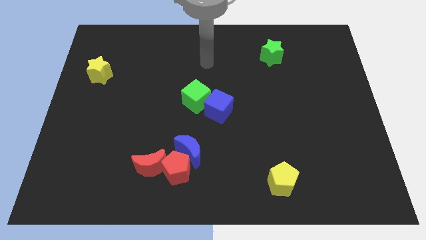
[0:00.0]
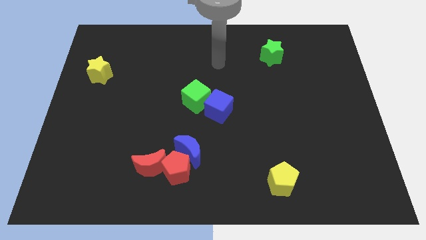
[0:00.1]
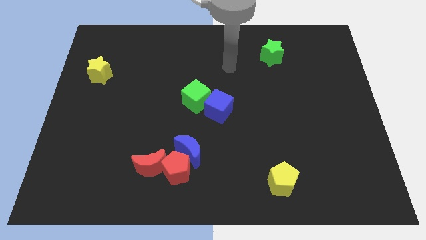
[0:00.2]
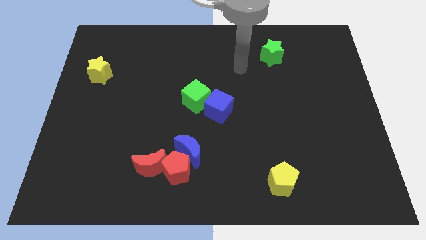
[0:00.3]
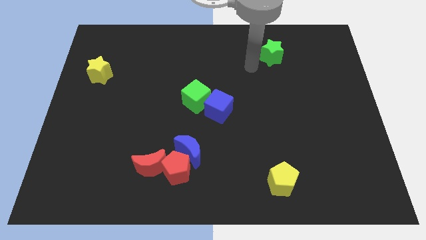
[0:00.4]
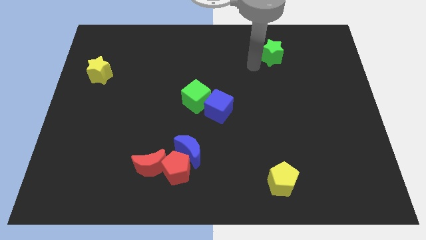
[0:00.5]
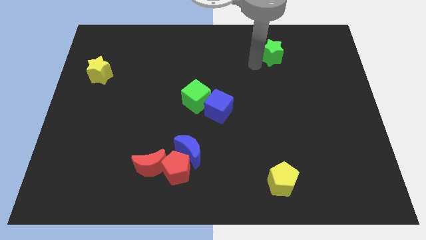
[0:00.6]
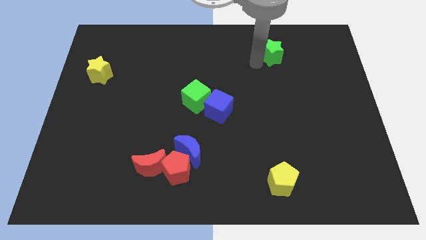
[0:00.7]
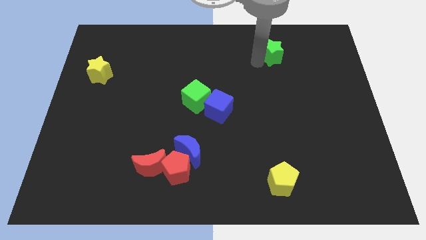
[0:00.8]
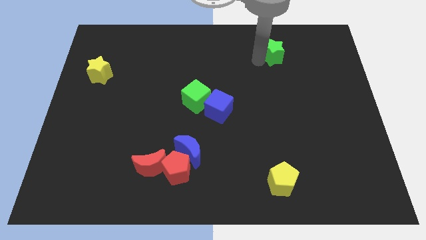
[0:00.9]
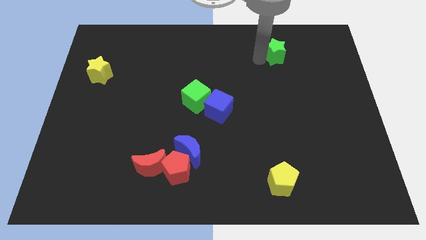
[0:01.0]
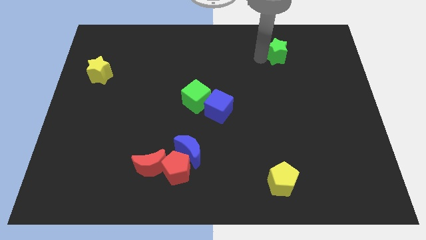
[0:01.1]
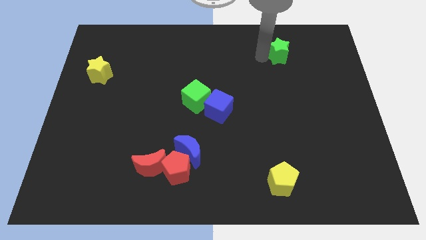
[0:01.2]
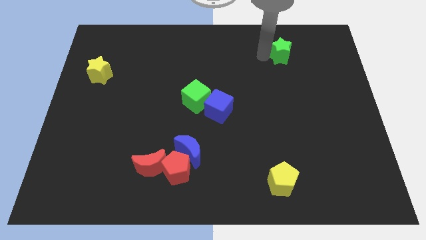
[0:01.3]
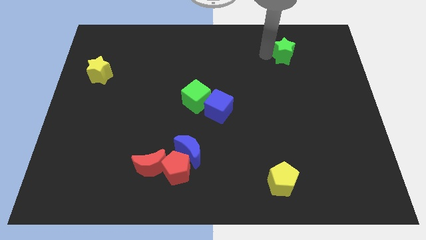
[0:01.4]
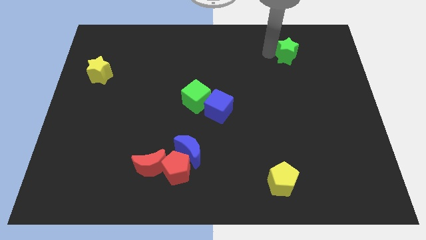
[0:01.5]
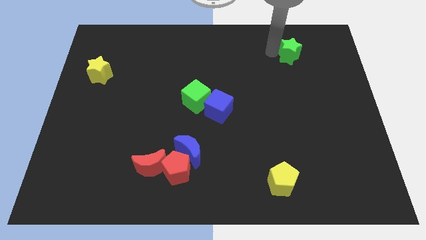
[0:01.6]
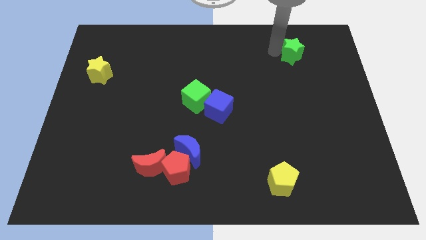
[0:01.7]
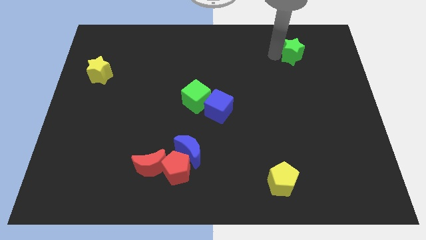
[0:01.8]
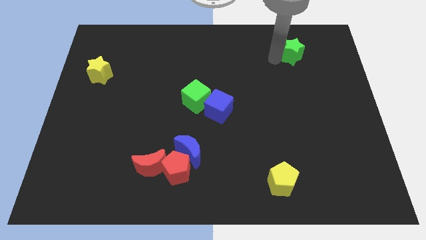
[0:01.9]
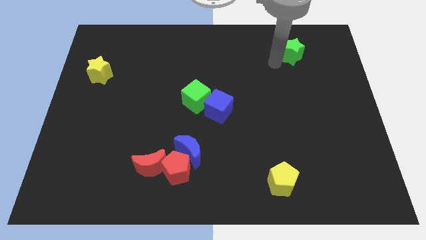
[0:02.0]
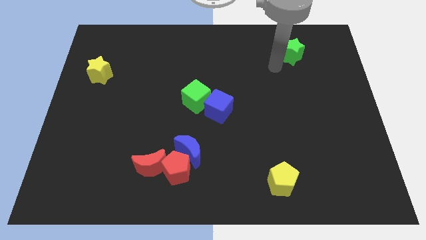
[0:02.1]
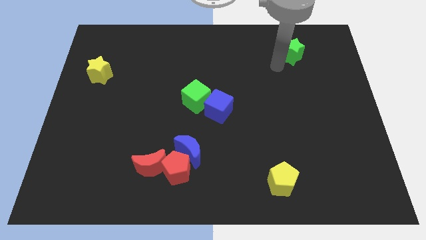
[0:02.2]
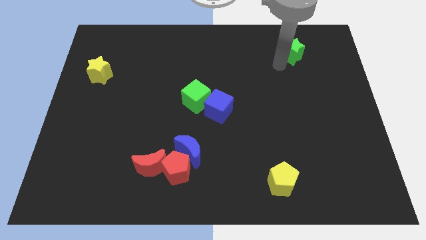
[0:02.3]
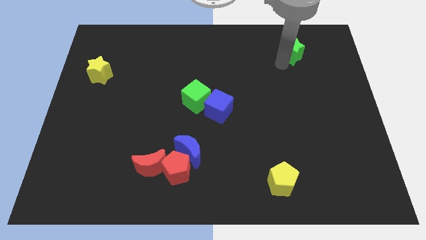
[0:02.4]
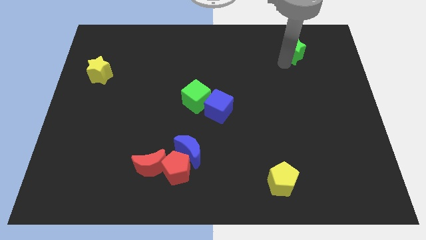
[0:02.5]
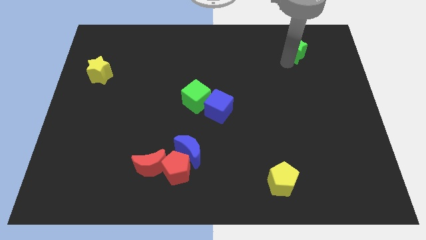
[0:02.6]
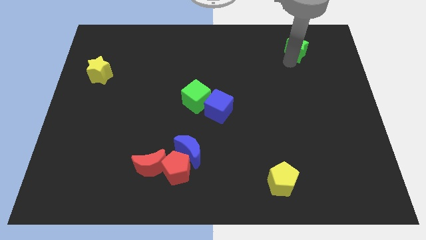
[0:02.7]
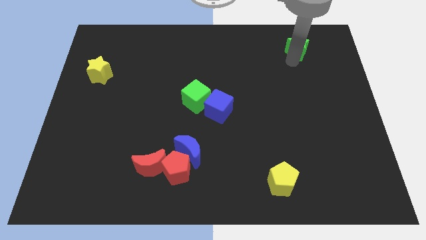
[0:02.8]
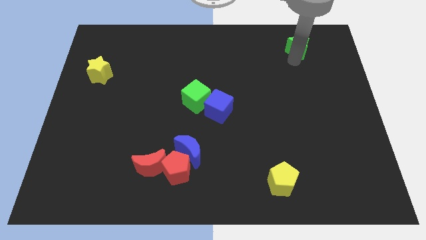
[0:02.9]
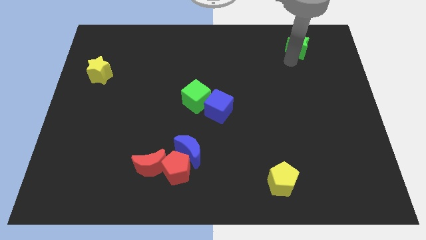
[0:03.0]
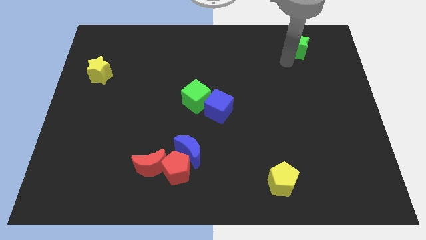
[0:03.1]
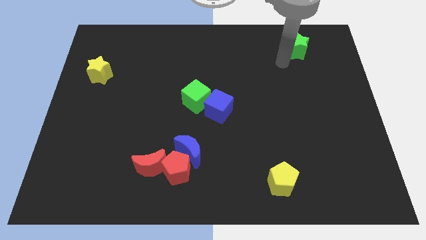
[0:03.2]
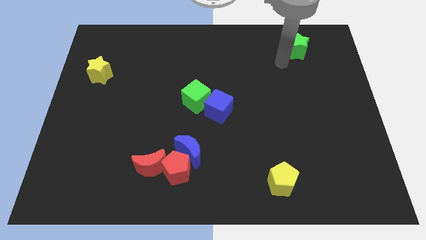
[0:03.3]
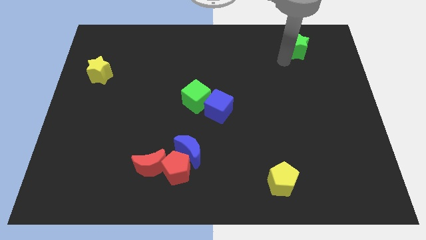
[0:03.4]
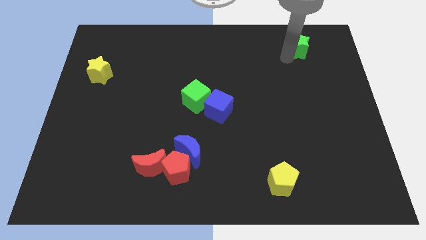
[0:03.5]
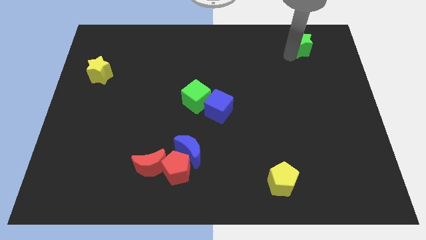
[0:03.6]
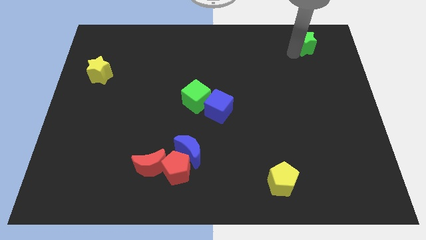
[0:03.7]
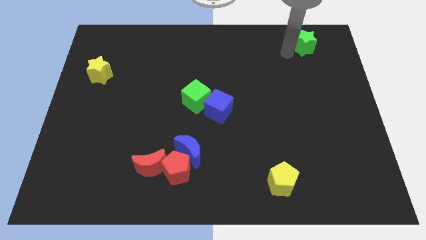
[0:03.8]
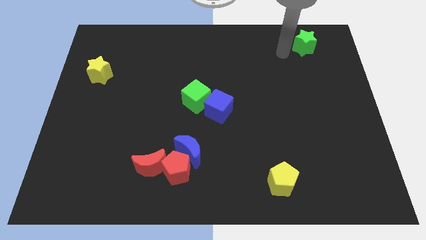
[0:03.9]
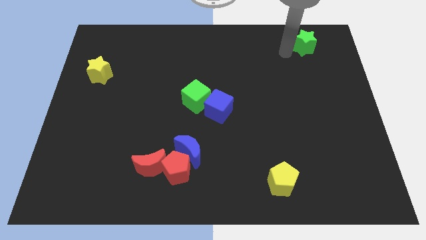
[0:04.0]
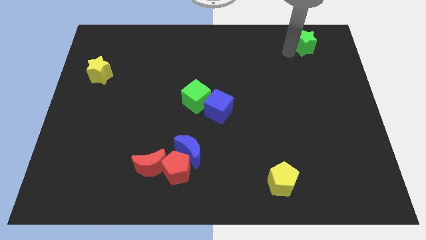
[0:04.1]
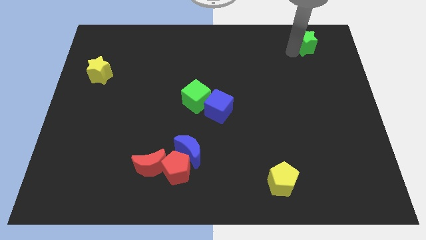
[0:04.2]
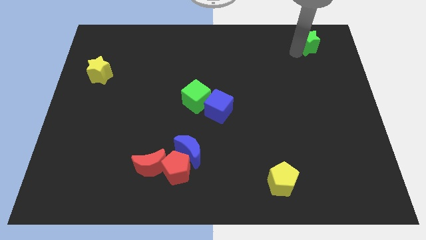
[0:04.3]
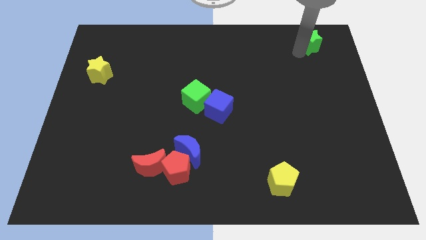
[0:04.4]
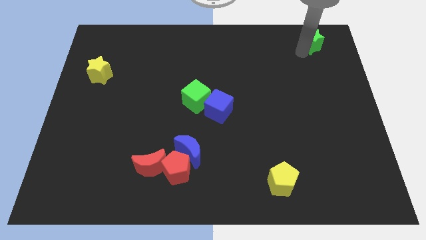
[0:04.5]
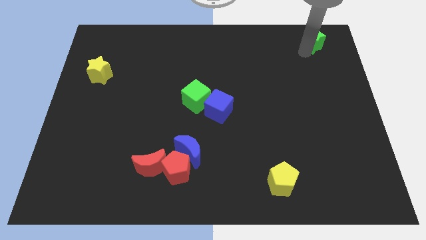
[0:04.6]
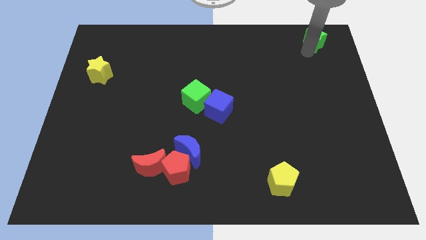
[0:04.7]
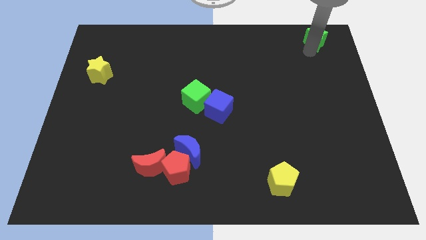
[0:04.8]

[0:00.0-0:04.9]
push the green star to the upper right corner

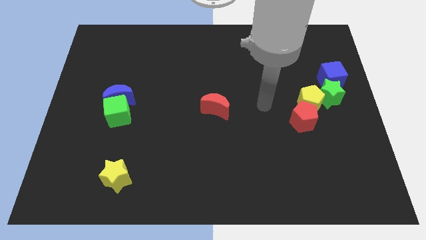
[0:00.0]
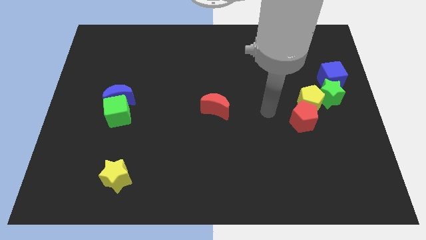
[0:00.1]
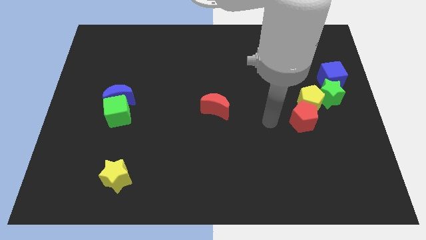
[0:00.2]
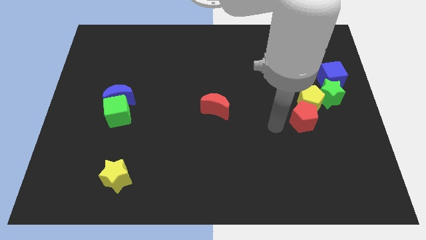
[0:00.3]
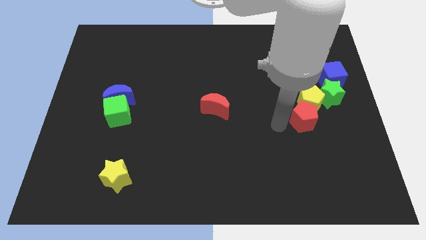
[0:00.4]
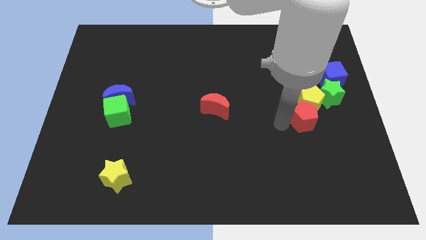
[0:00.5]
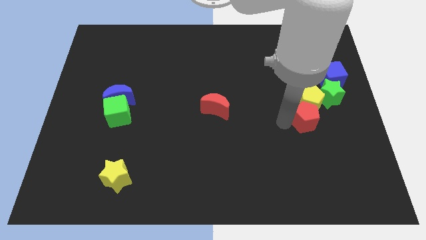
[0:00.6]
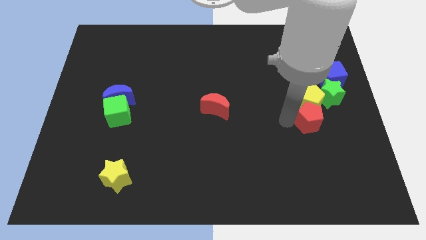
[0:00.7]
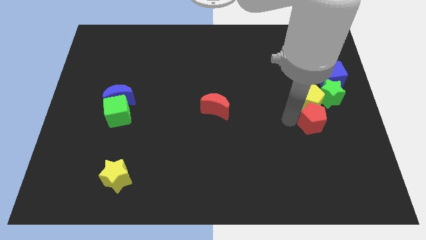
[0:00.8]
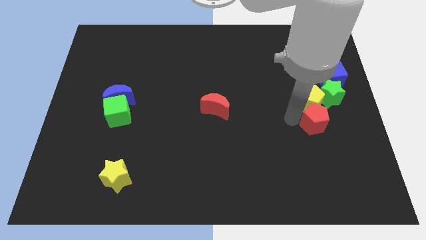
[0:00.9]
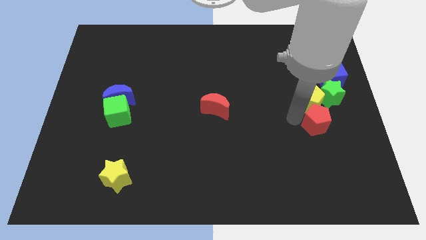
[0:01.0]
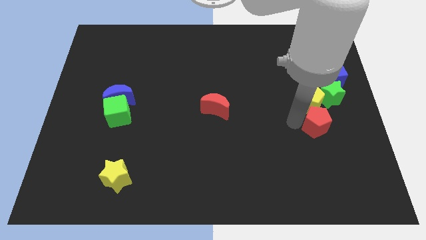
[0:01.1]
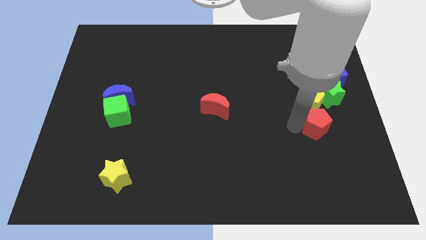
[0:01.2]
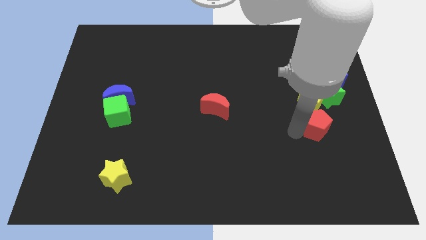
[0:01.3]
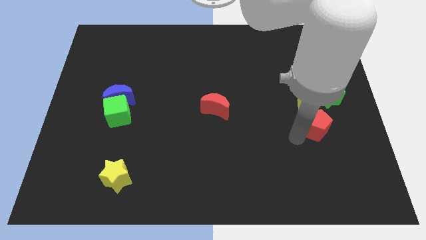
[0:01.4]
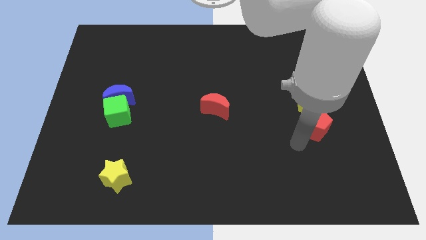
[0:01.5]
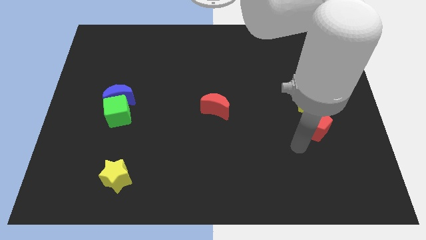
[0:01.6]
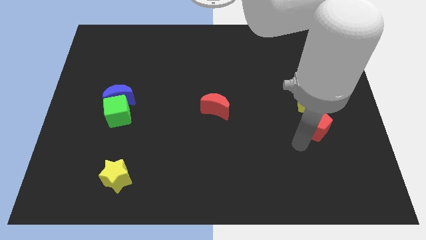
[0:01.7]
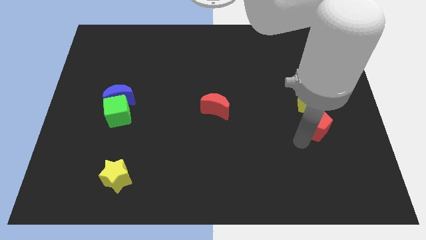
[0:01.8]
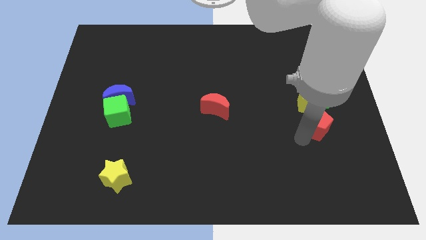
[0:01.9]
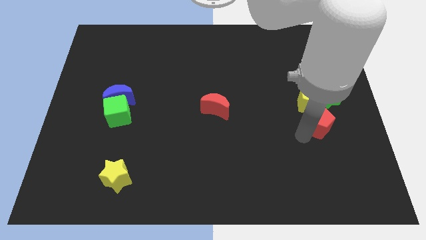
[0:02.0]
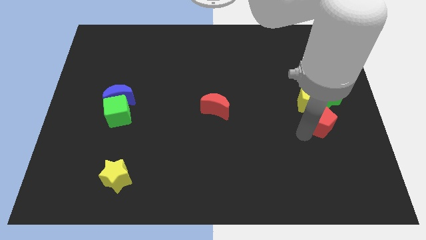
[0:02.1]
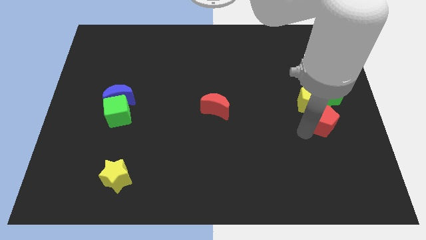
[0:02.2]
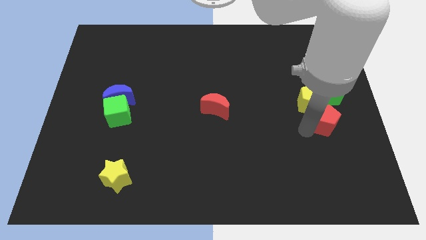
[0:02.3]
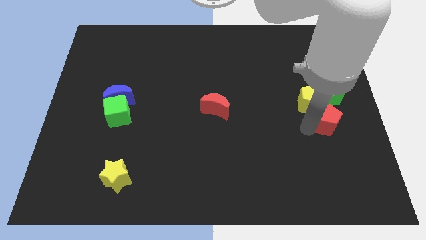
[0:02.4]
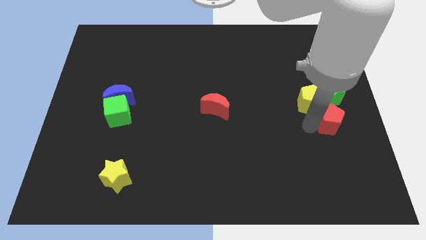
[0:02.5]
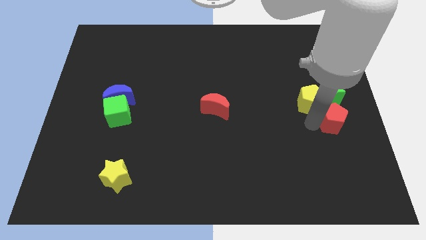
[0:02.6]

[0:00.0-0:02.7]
put the red pentagon to the right side of the board
